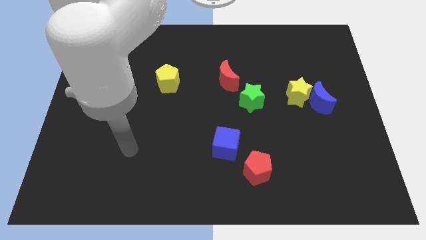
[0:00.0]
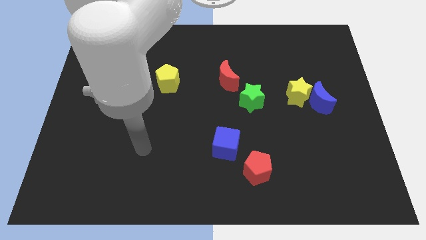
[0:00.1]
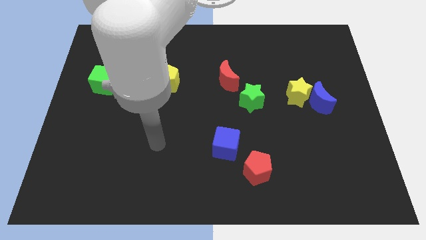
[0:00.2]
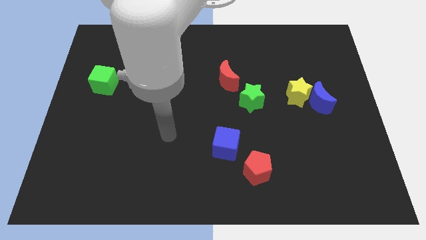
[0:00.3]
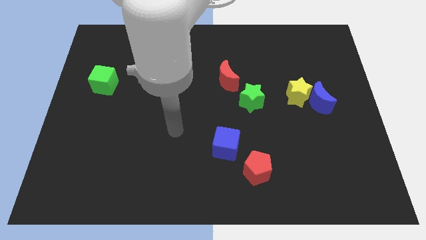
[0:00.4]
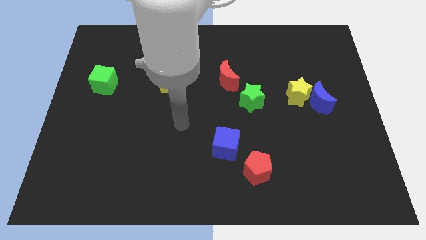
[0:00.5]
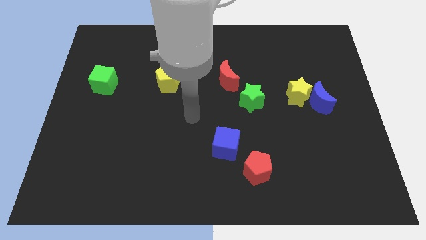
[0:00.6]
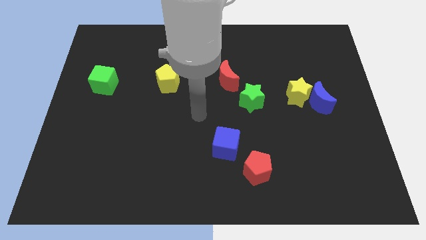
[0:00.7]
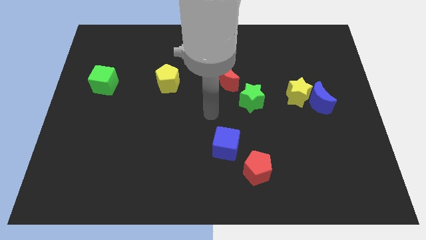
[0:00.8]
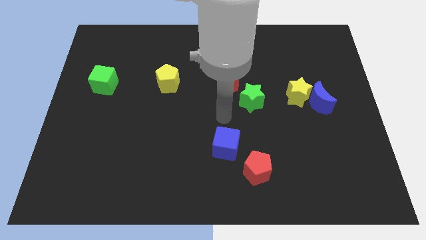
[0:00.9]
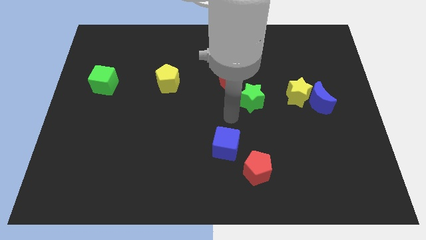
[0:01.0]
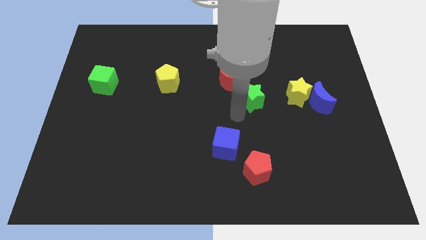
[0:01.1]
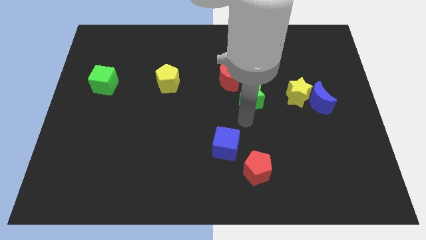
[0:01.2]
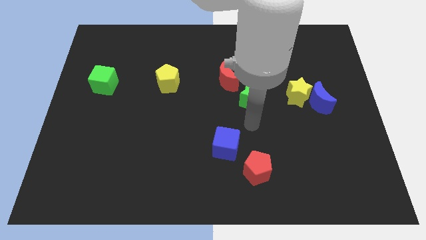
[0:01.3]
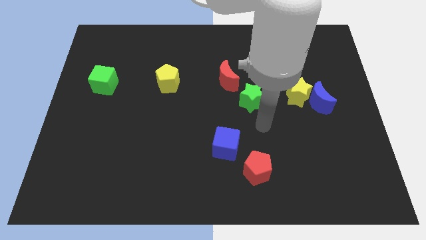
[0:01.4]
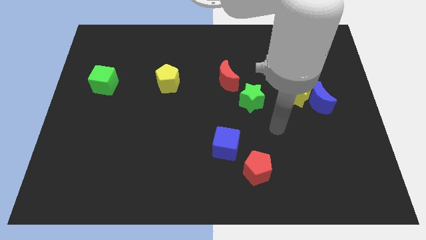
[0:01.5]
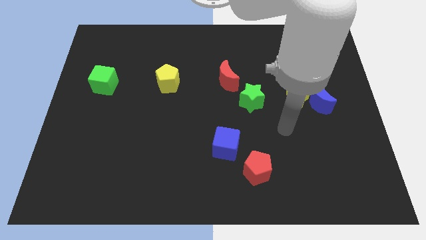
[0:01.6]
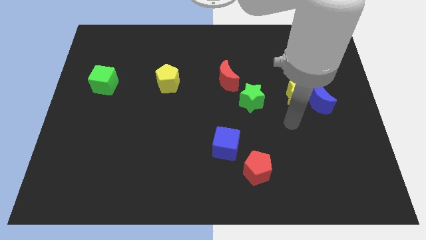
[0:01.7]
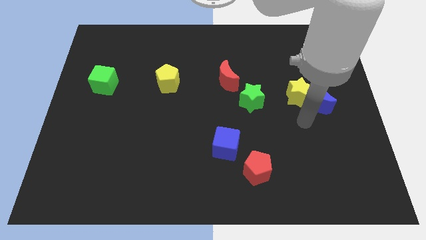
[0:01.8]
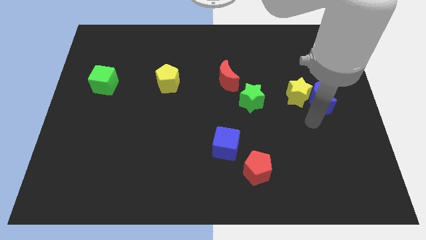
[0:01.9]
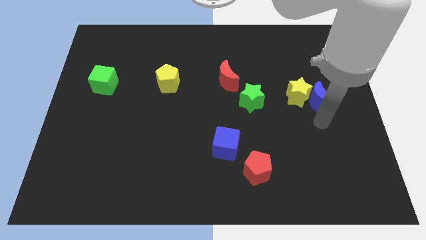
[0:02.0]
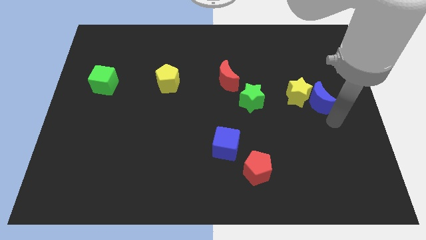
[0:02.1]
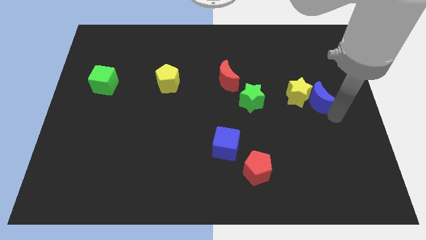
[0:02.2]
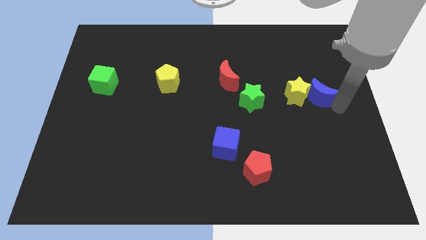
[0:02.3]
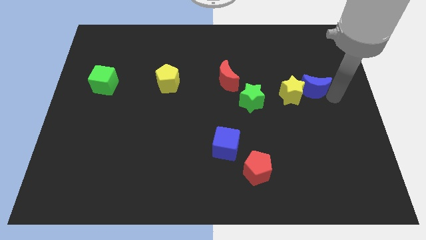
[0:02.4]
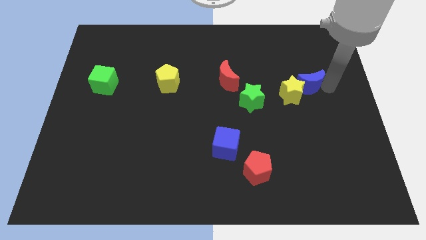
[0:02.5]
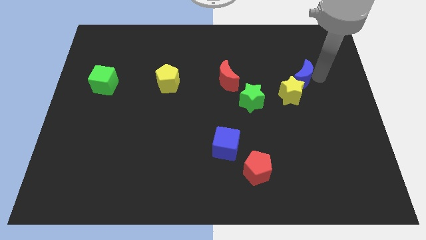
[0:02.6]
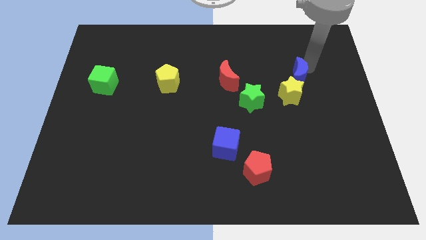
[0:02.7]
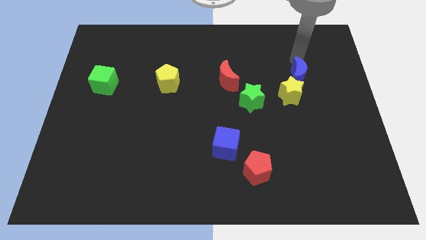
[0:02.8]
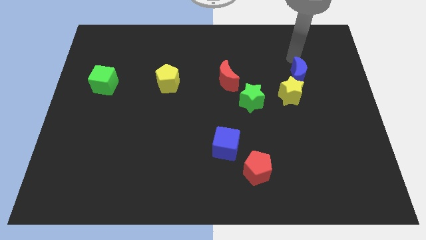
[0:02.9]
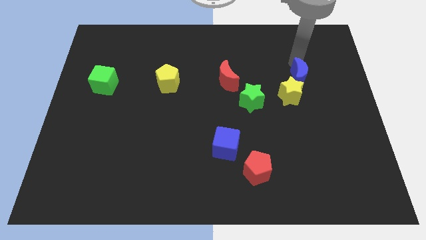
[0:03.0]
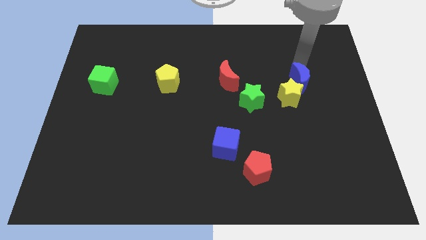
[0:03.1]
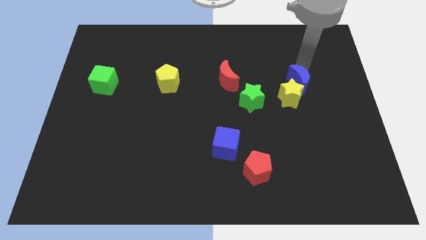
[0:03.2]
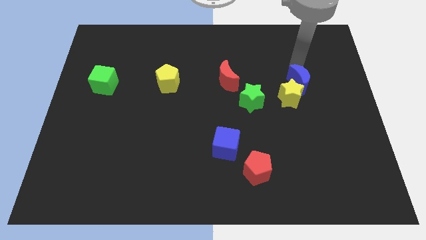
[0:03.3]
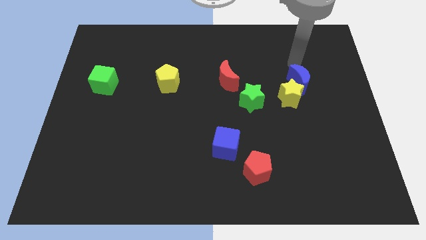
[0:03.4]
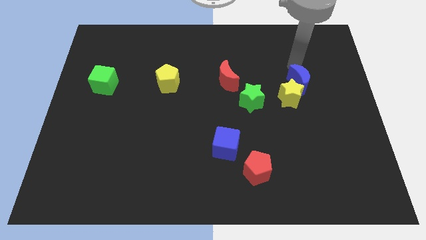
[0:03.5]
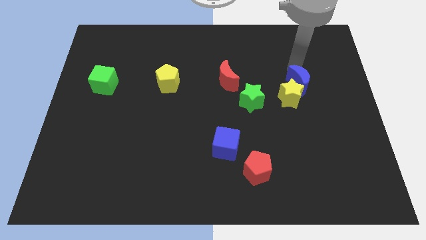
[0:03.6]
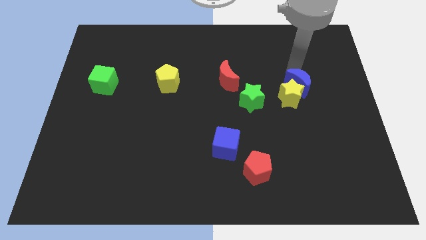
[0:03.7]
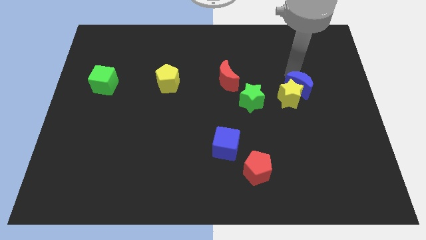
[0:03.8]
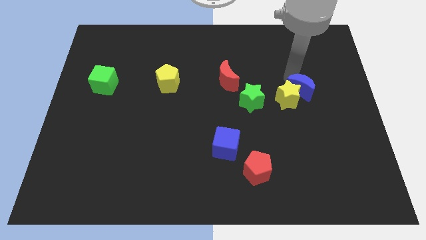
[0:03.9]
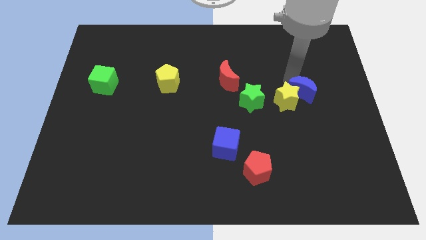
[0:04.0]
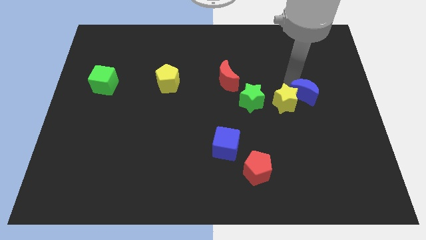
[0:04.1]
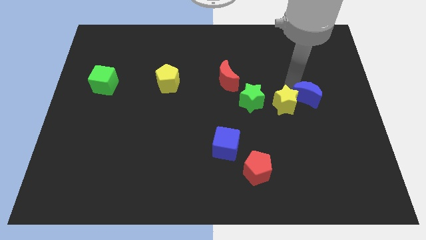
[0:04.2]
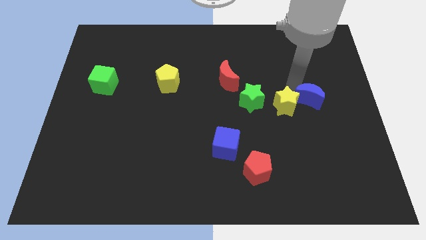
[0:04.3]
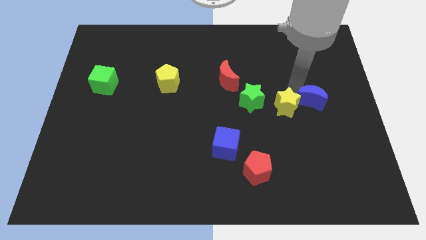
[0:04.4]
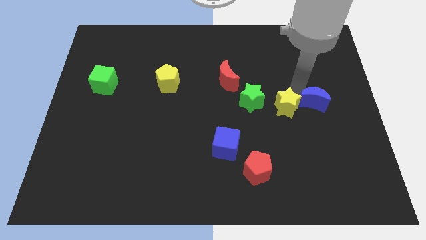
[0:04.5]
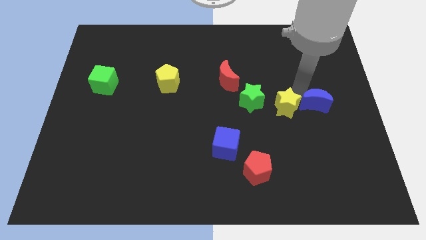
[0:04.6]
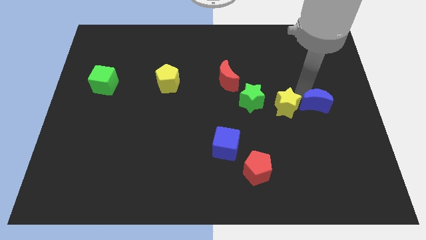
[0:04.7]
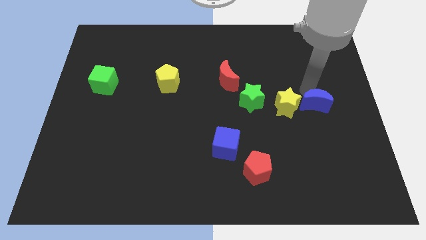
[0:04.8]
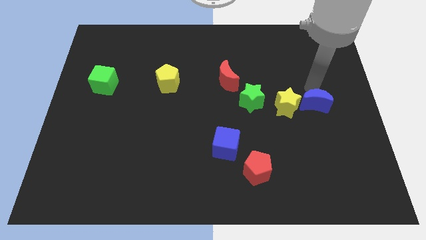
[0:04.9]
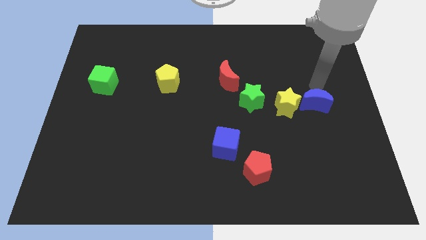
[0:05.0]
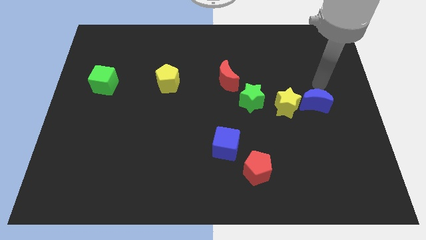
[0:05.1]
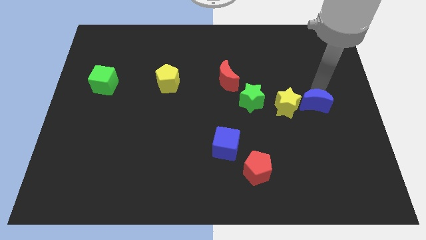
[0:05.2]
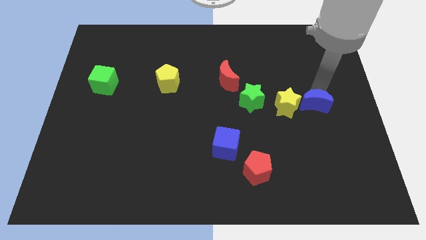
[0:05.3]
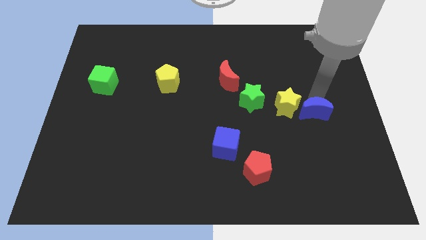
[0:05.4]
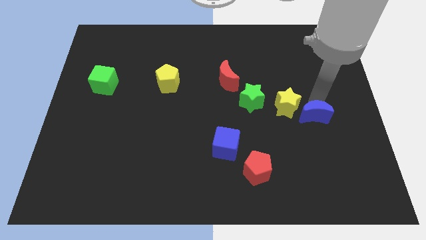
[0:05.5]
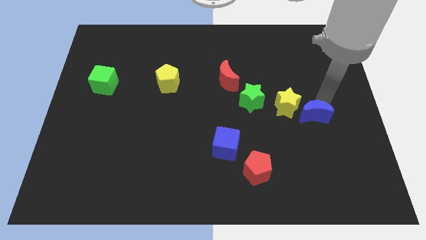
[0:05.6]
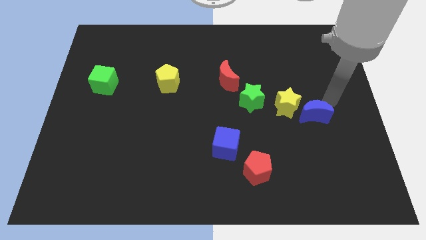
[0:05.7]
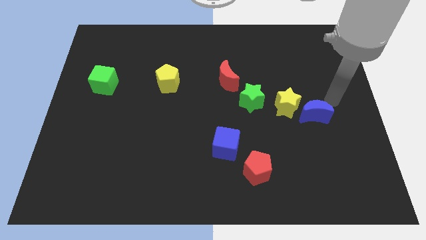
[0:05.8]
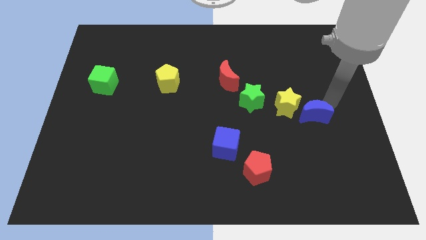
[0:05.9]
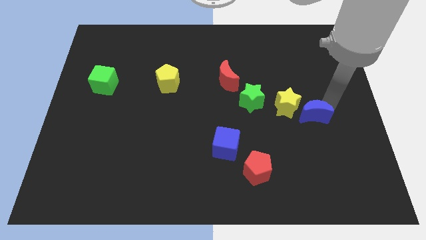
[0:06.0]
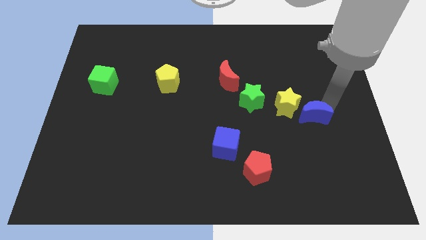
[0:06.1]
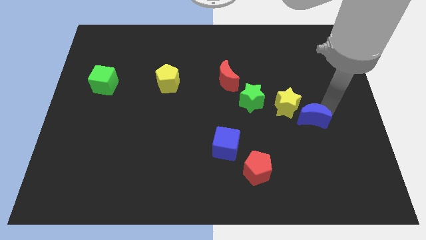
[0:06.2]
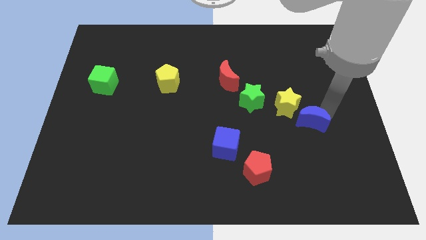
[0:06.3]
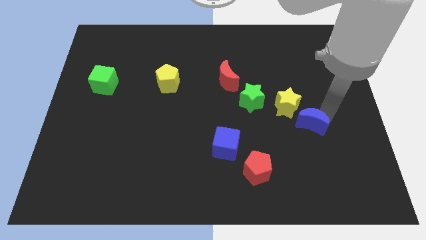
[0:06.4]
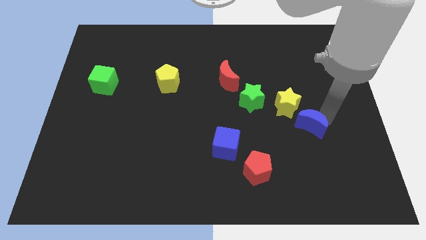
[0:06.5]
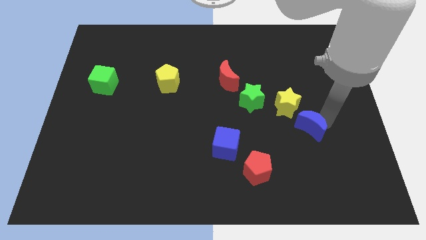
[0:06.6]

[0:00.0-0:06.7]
move the blue moon a little downwards and left

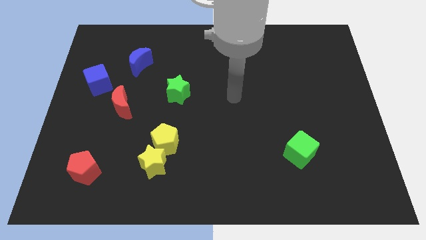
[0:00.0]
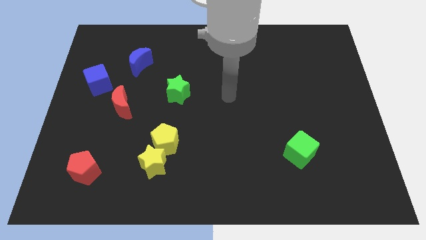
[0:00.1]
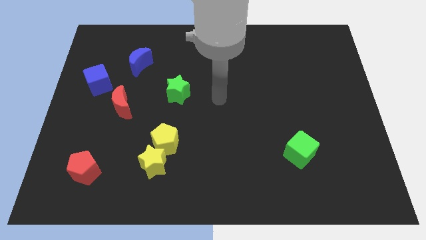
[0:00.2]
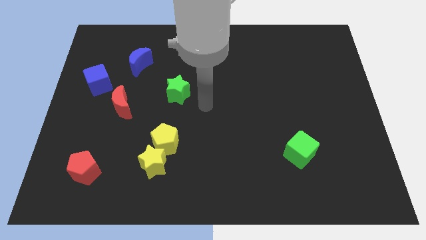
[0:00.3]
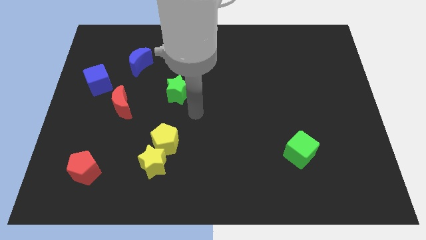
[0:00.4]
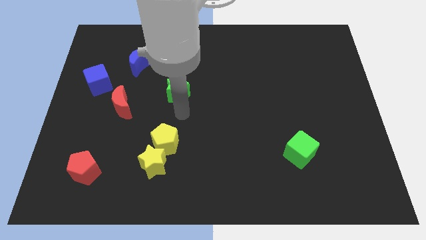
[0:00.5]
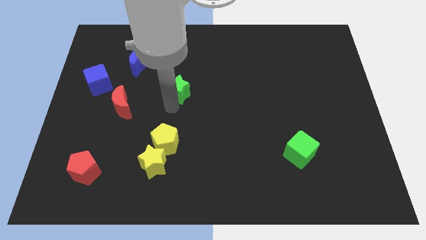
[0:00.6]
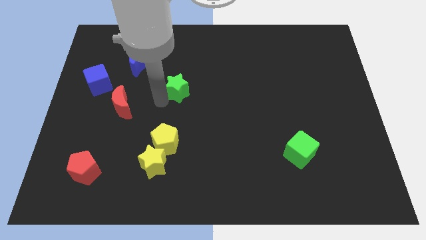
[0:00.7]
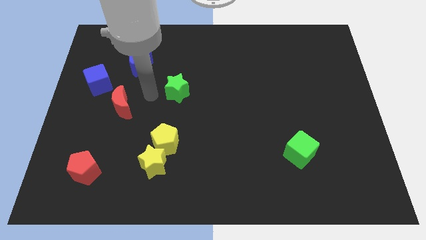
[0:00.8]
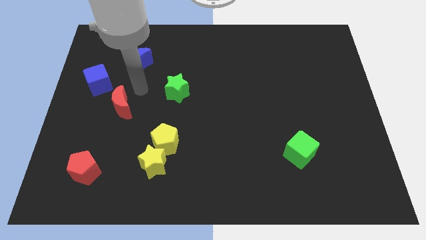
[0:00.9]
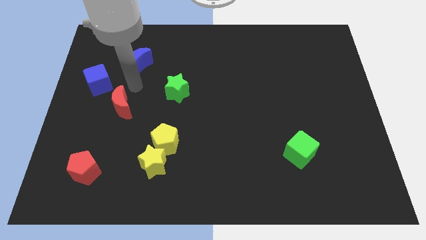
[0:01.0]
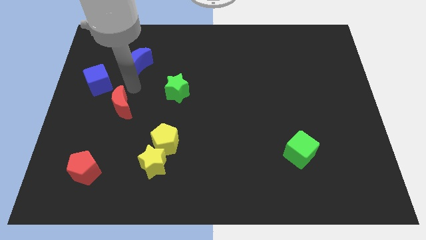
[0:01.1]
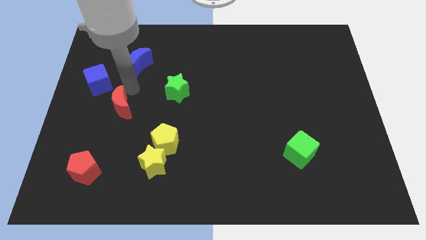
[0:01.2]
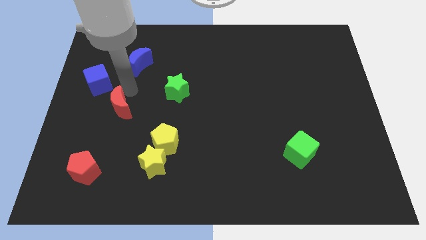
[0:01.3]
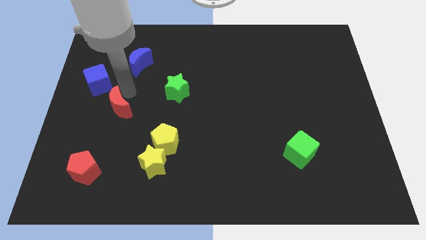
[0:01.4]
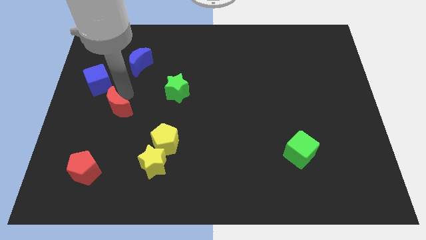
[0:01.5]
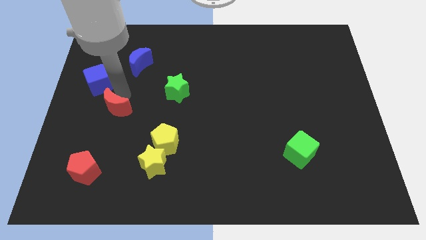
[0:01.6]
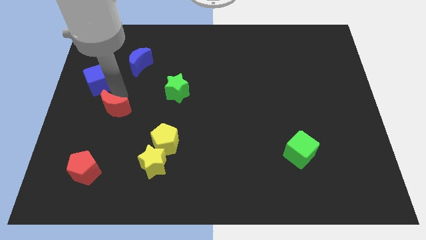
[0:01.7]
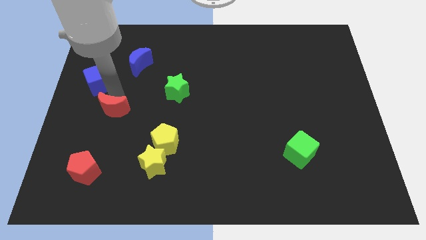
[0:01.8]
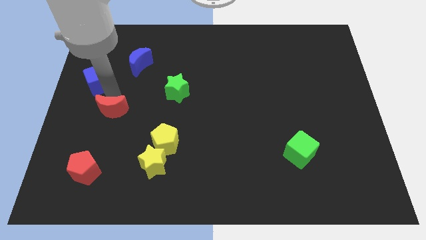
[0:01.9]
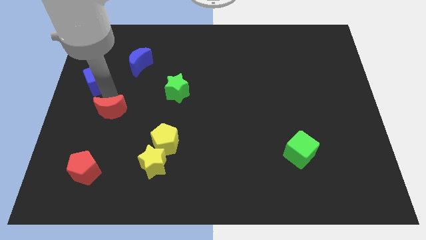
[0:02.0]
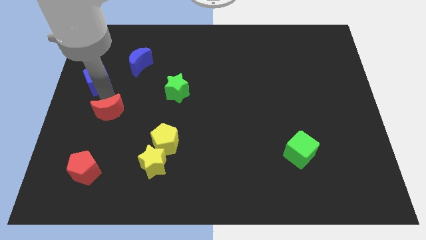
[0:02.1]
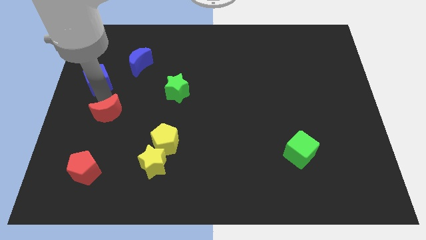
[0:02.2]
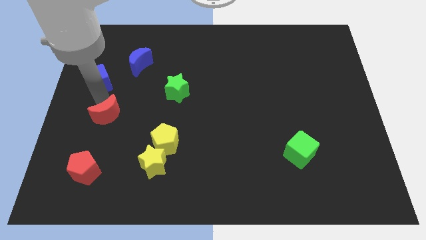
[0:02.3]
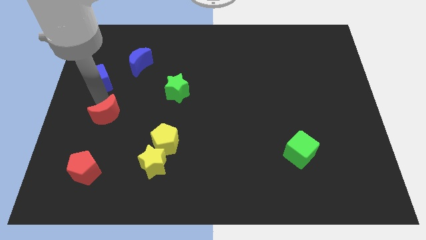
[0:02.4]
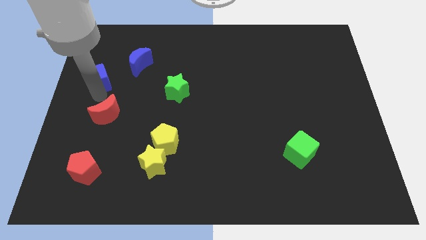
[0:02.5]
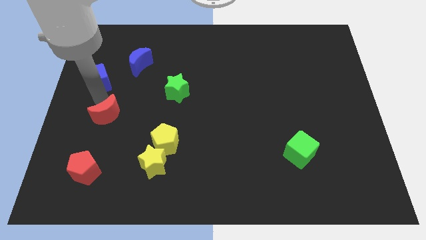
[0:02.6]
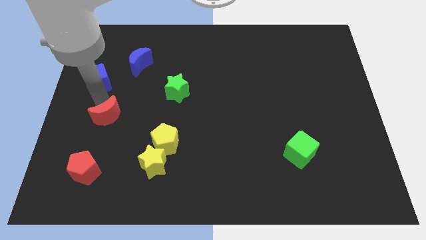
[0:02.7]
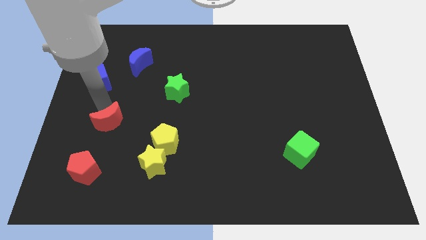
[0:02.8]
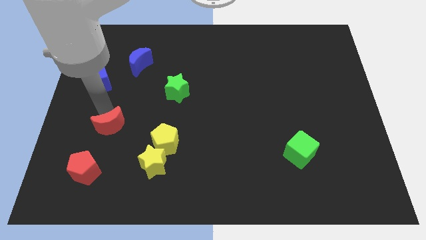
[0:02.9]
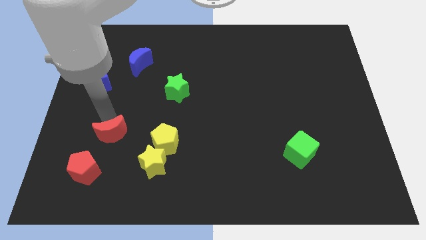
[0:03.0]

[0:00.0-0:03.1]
push the red moon down a little
